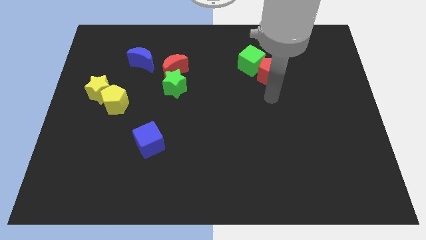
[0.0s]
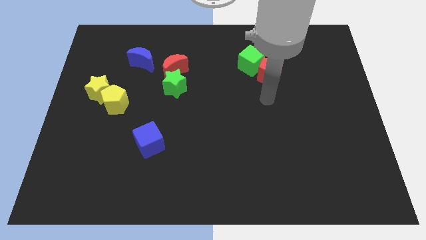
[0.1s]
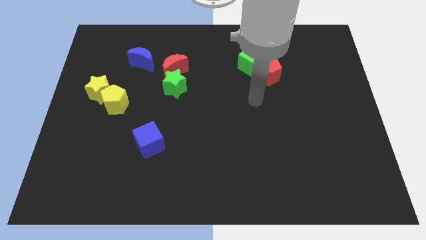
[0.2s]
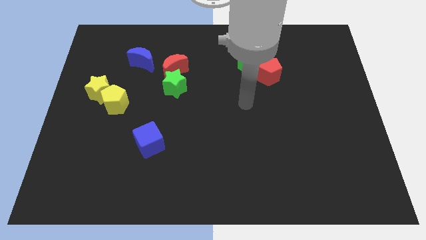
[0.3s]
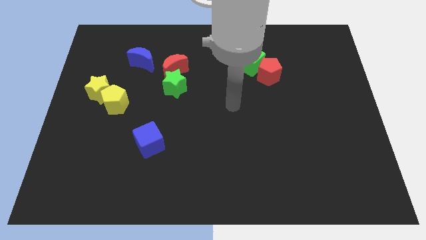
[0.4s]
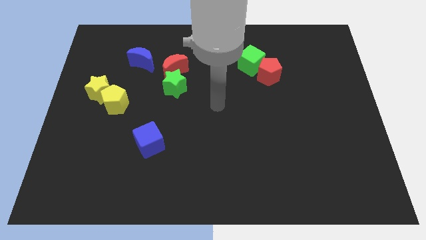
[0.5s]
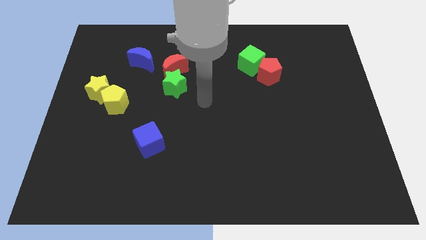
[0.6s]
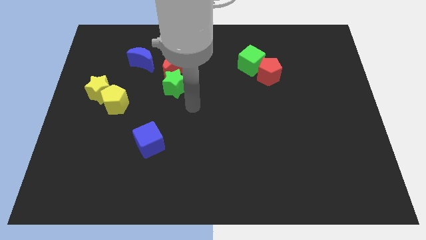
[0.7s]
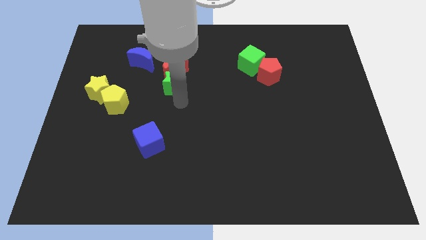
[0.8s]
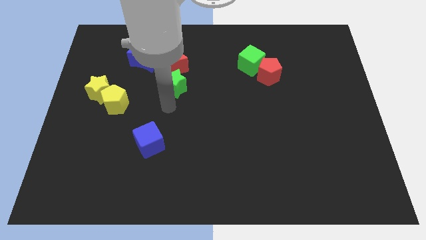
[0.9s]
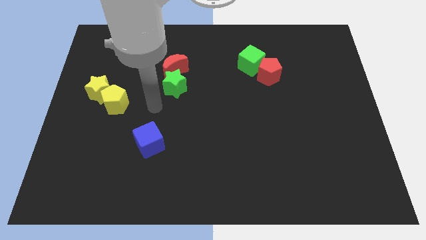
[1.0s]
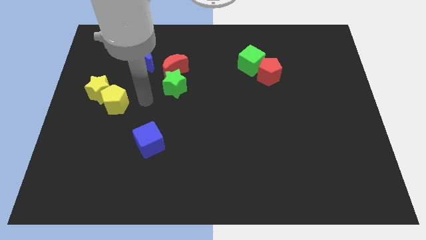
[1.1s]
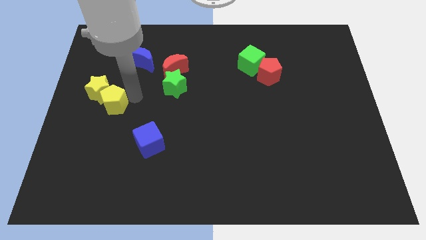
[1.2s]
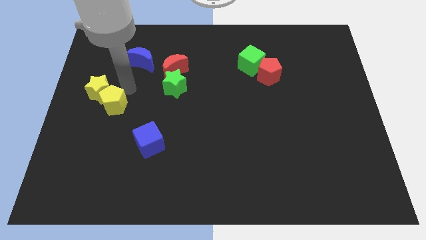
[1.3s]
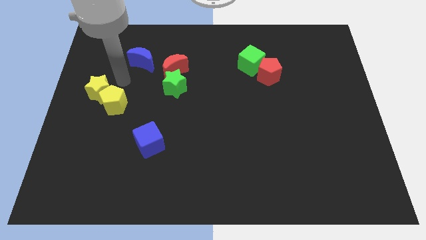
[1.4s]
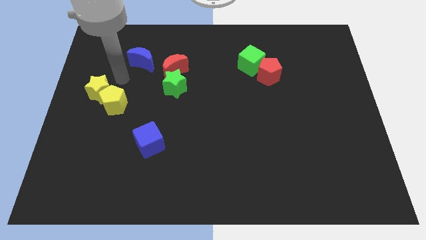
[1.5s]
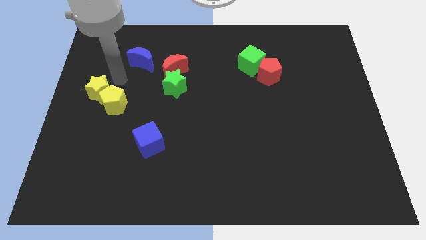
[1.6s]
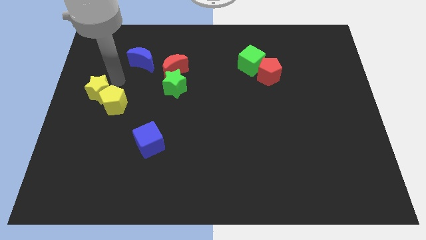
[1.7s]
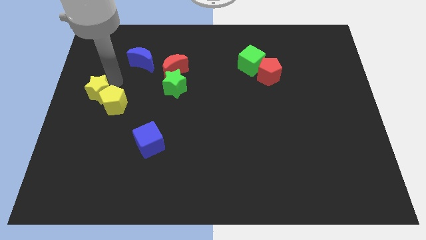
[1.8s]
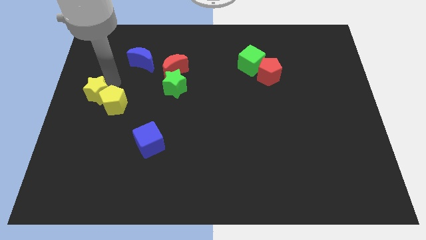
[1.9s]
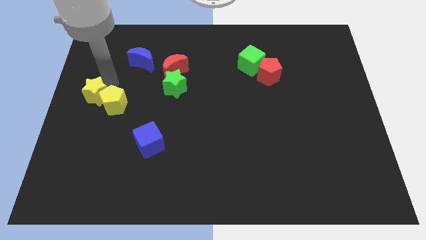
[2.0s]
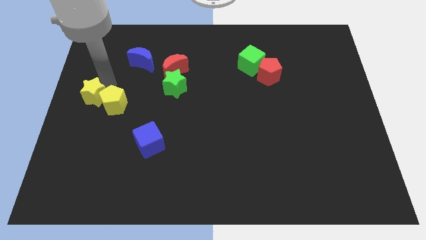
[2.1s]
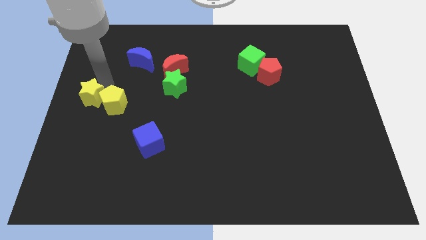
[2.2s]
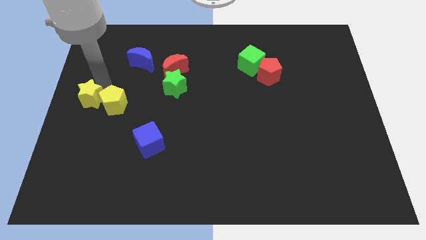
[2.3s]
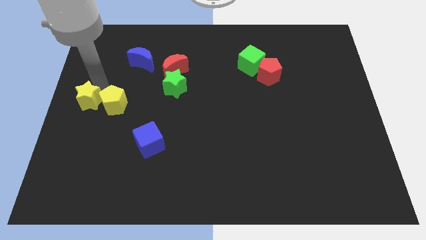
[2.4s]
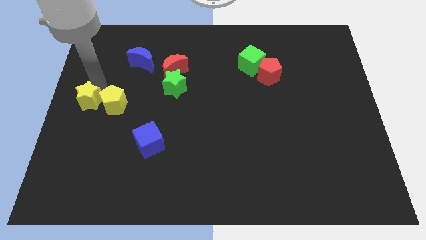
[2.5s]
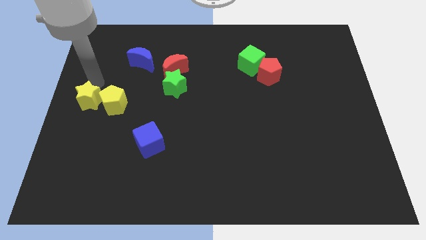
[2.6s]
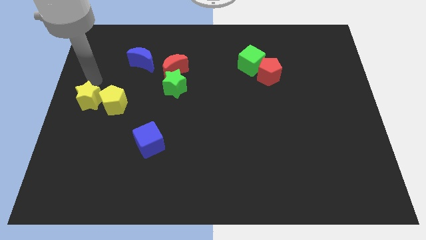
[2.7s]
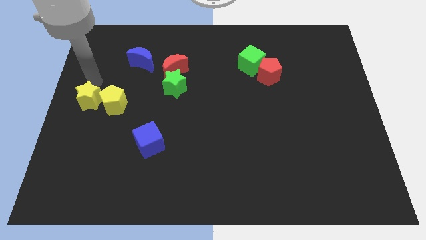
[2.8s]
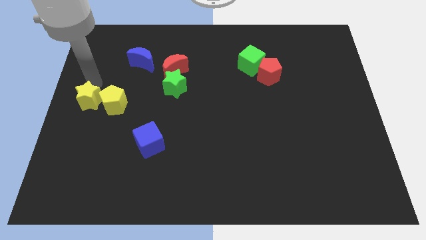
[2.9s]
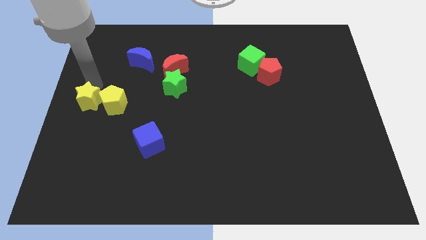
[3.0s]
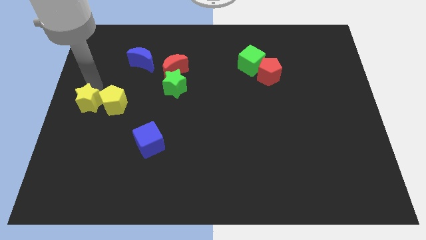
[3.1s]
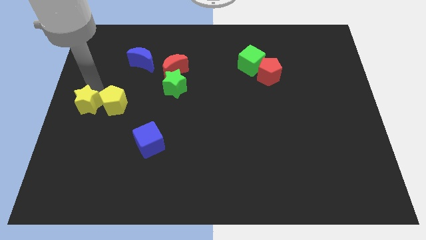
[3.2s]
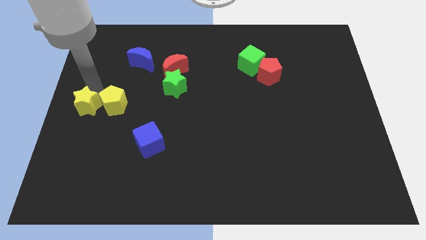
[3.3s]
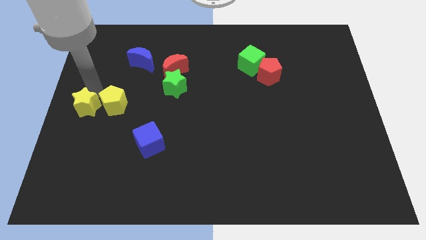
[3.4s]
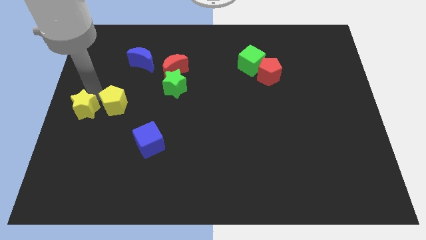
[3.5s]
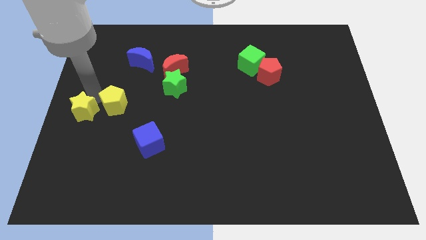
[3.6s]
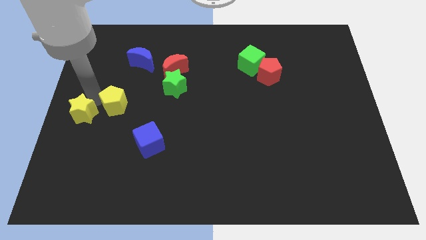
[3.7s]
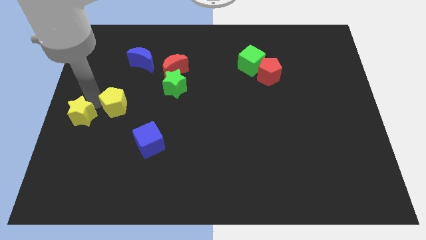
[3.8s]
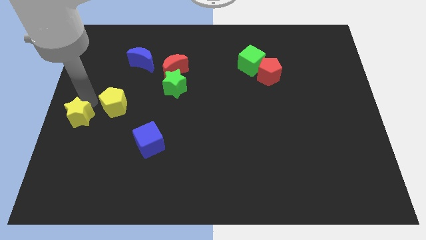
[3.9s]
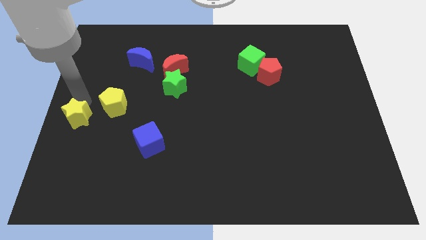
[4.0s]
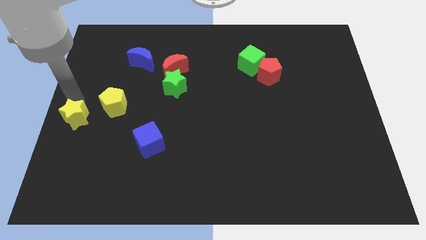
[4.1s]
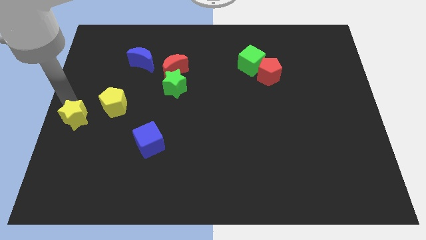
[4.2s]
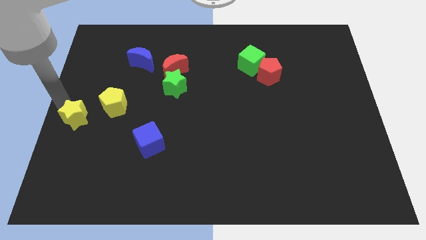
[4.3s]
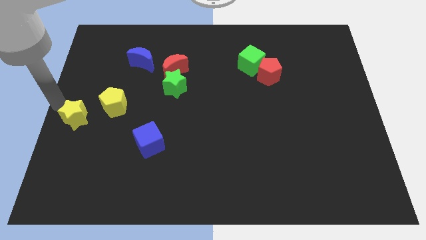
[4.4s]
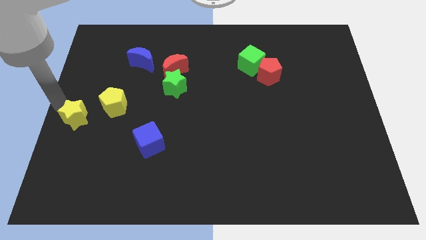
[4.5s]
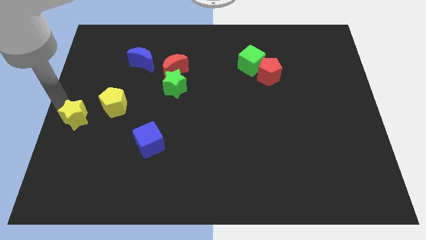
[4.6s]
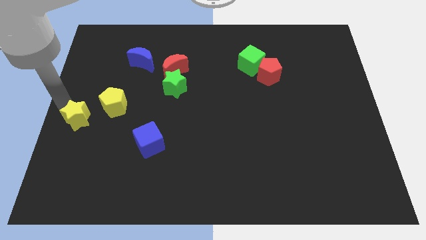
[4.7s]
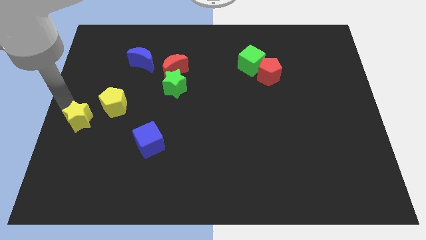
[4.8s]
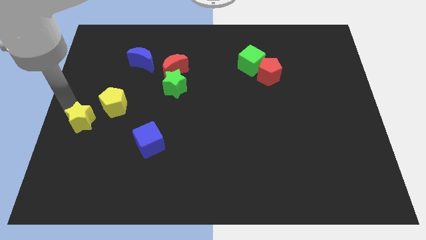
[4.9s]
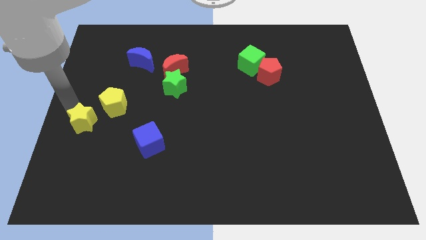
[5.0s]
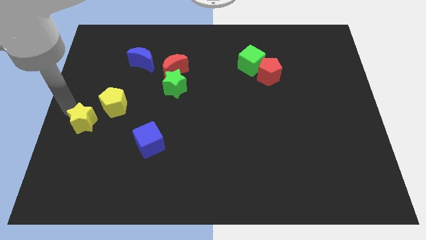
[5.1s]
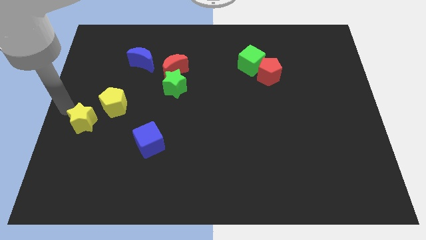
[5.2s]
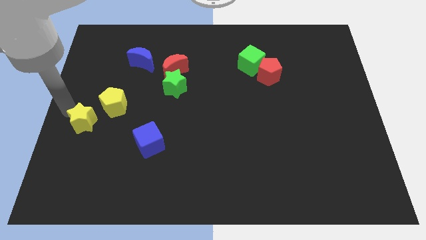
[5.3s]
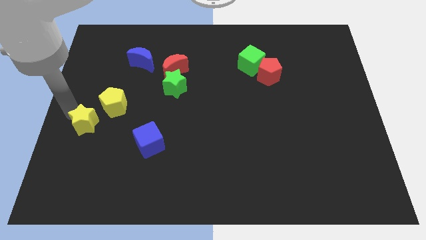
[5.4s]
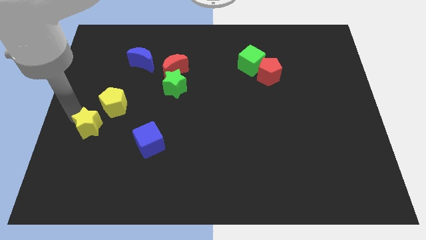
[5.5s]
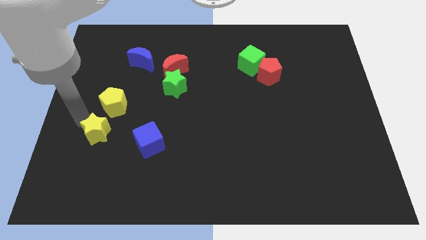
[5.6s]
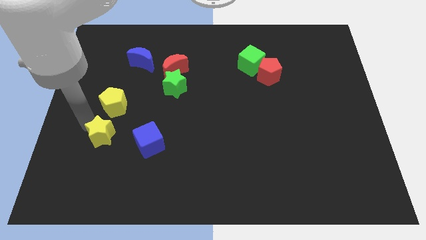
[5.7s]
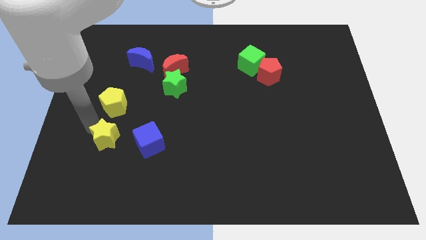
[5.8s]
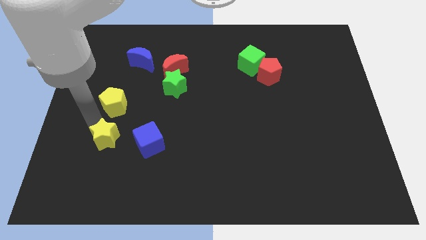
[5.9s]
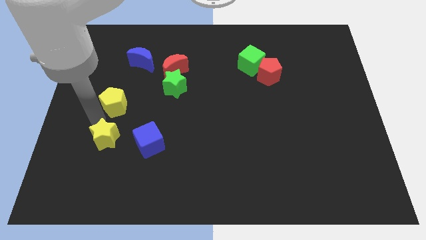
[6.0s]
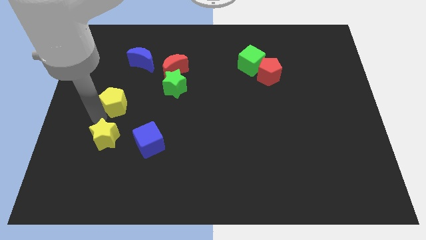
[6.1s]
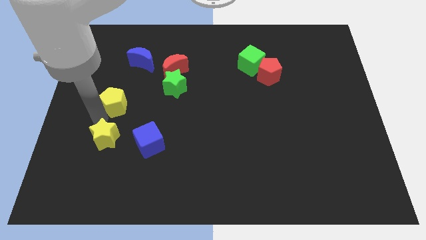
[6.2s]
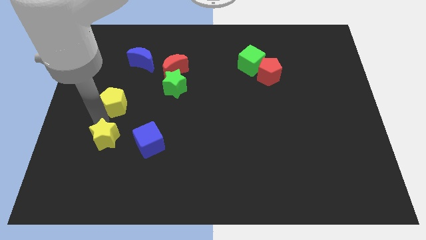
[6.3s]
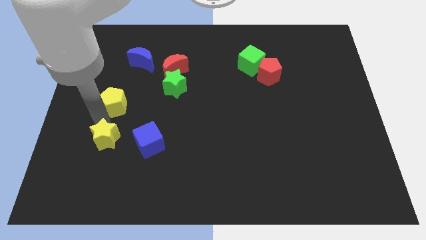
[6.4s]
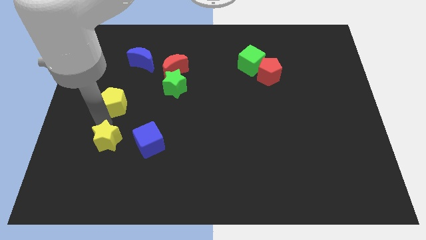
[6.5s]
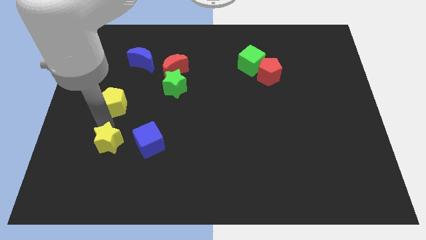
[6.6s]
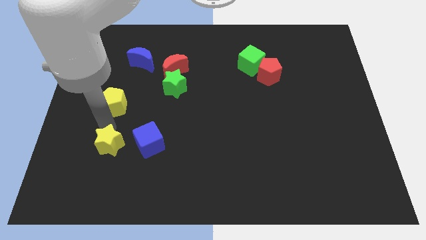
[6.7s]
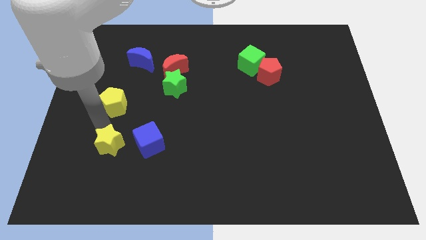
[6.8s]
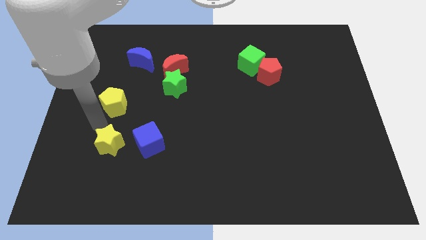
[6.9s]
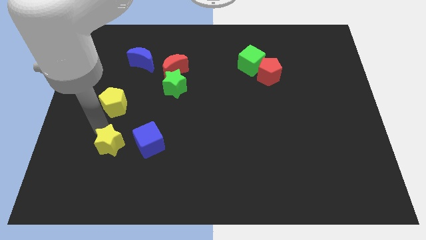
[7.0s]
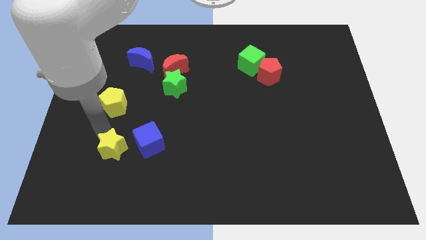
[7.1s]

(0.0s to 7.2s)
put the yellow star to the bottom left side of the blue cube

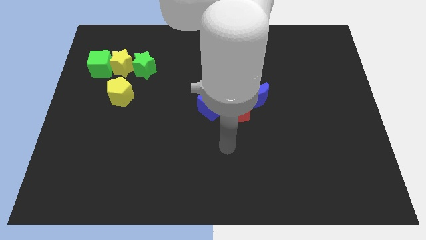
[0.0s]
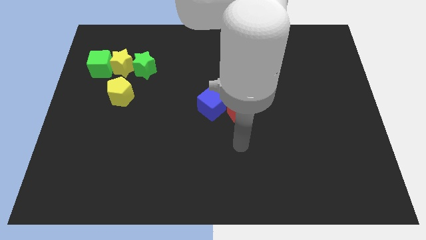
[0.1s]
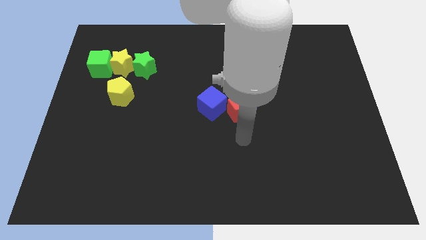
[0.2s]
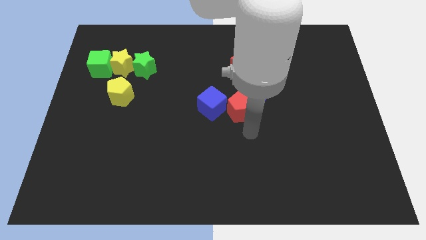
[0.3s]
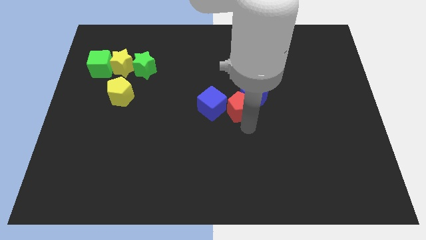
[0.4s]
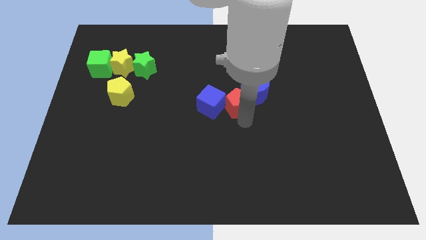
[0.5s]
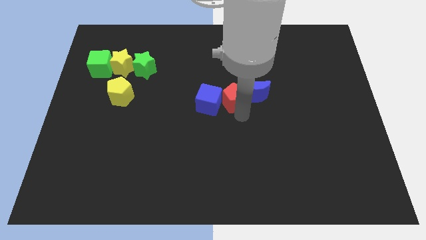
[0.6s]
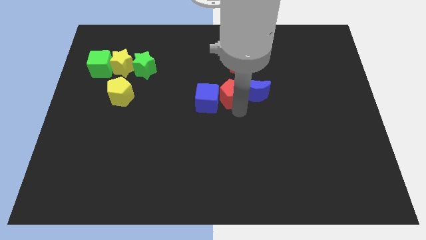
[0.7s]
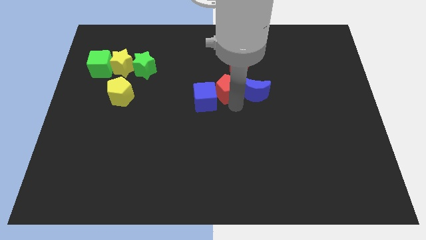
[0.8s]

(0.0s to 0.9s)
slide the red pentagon to the bottom left of the red moon
